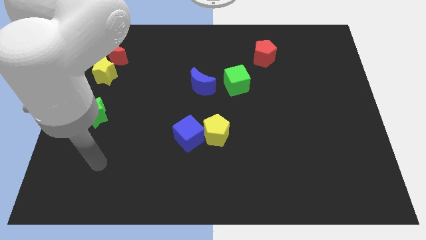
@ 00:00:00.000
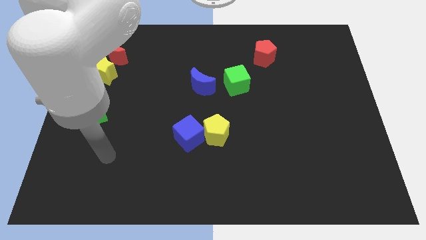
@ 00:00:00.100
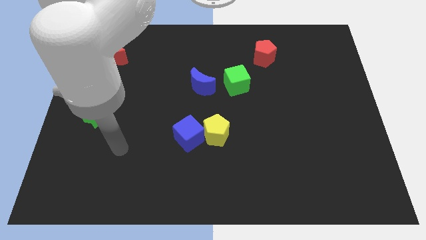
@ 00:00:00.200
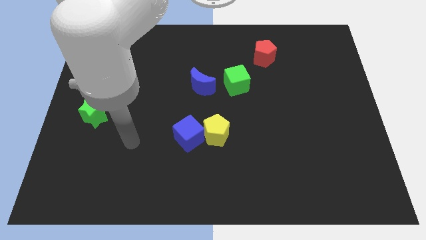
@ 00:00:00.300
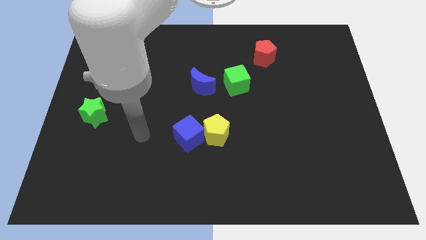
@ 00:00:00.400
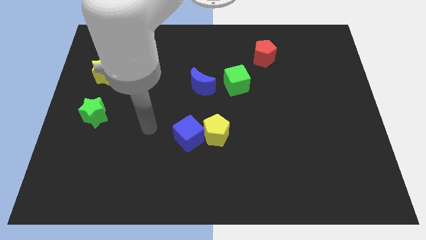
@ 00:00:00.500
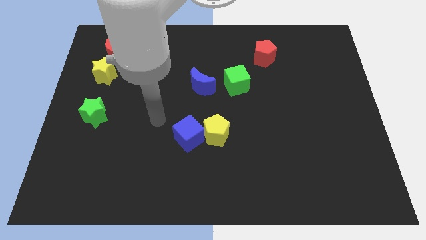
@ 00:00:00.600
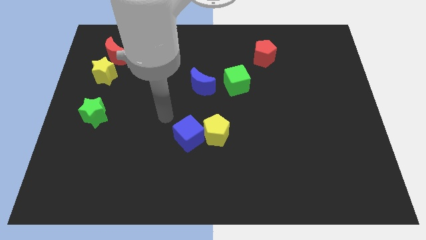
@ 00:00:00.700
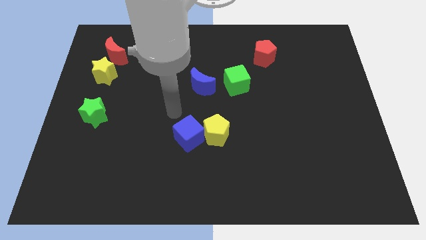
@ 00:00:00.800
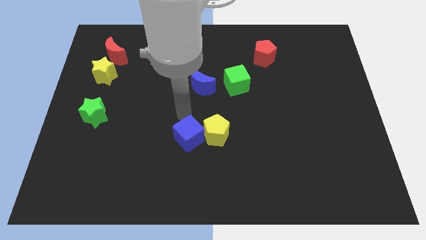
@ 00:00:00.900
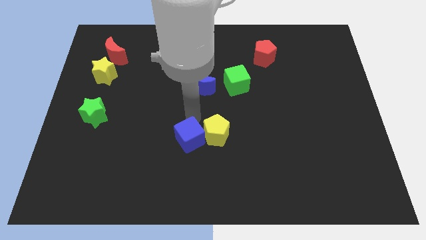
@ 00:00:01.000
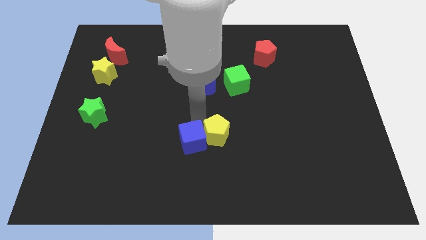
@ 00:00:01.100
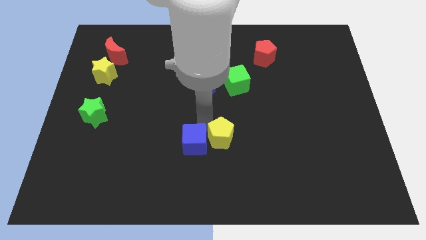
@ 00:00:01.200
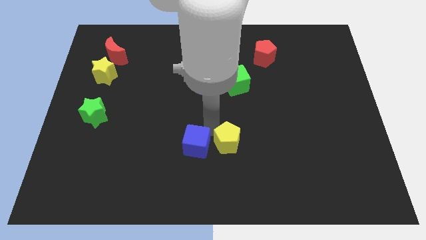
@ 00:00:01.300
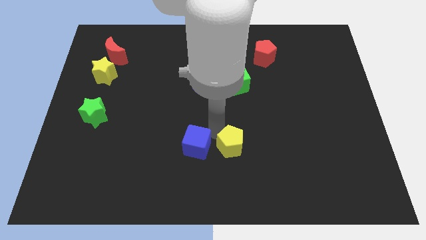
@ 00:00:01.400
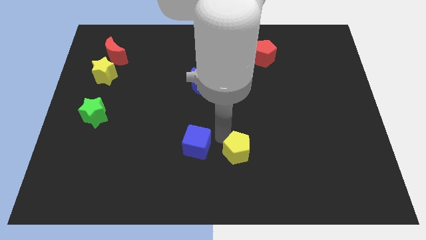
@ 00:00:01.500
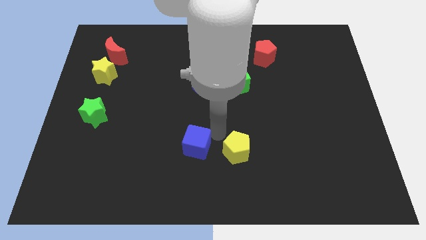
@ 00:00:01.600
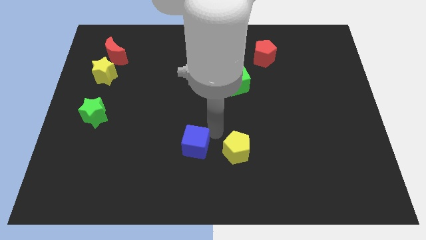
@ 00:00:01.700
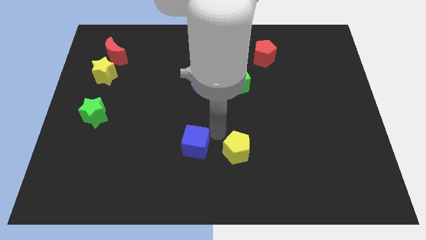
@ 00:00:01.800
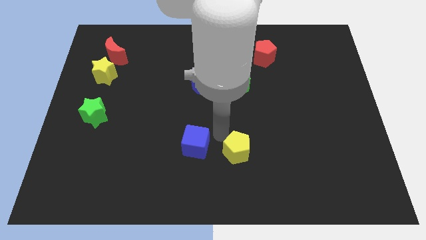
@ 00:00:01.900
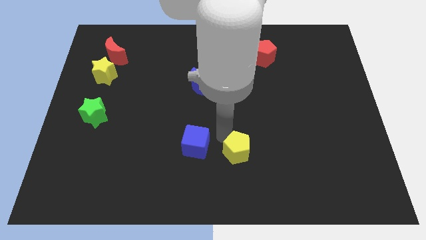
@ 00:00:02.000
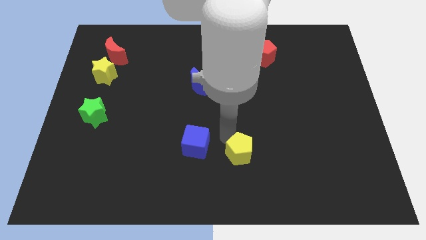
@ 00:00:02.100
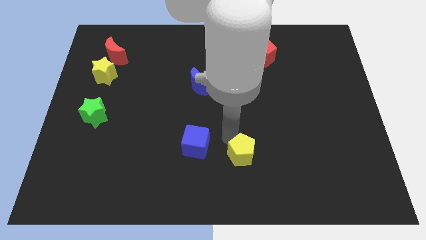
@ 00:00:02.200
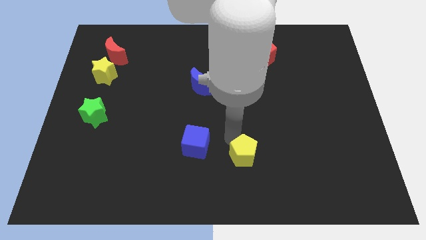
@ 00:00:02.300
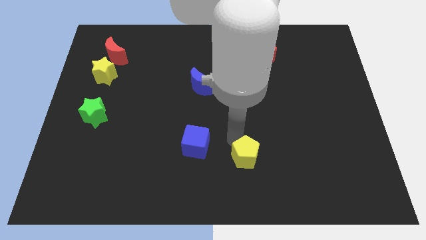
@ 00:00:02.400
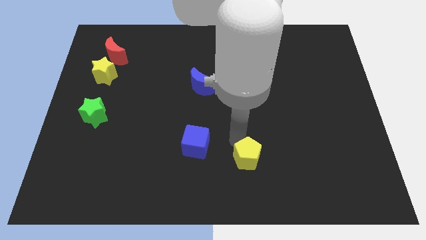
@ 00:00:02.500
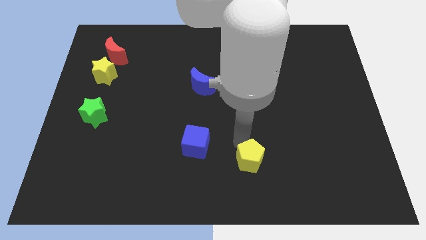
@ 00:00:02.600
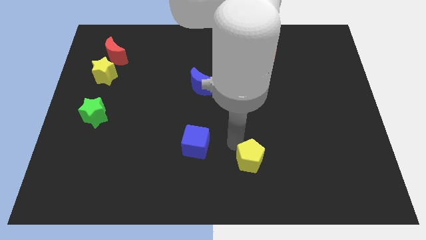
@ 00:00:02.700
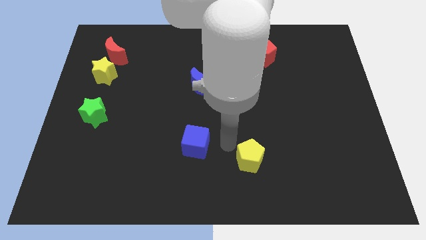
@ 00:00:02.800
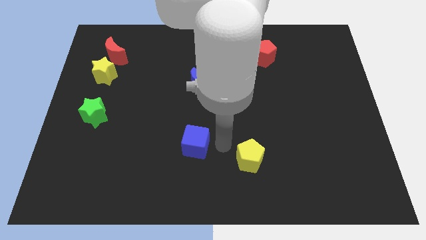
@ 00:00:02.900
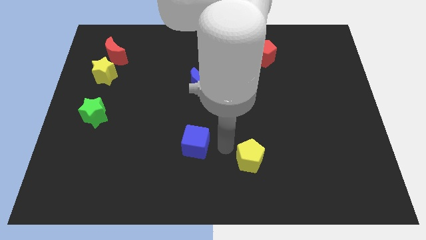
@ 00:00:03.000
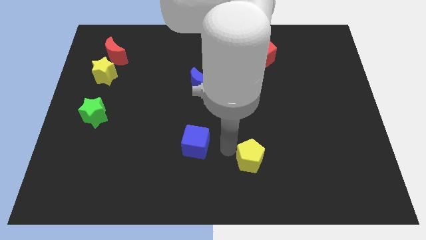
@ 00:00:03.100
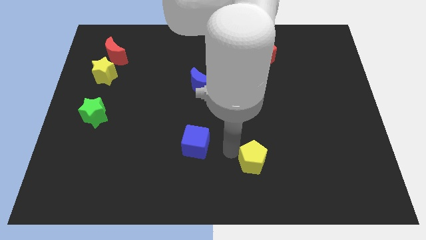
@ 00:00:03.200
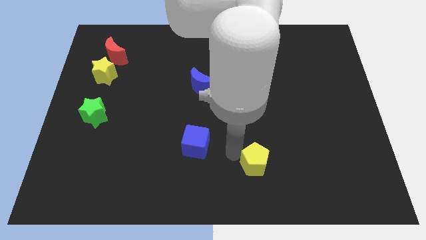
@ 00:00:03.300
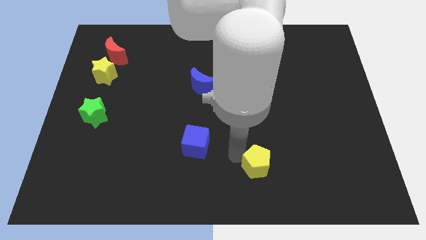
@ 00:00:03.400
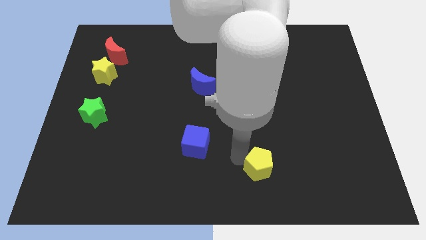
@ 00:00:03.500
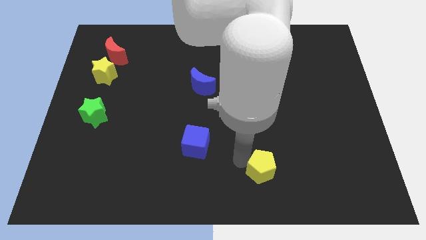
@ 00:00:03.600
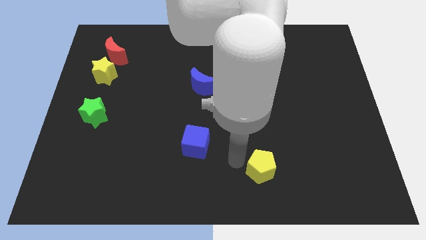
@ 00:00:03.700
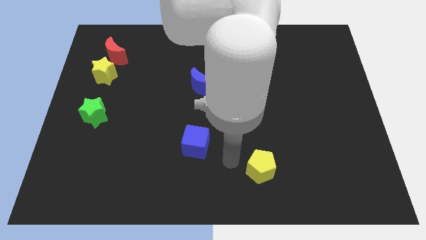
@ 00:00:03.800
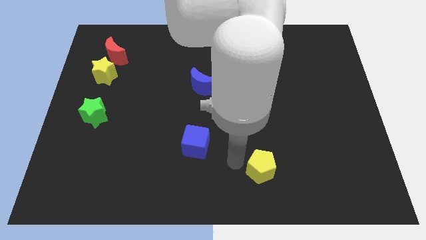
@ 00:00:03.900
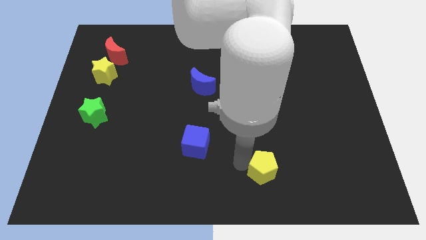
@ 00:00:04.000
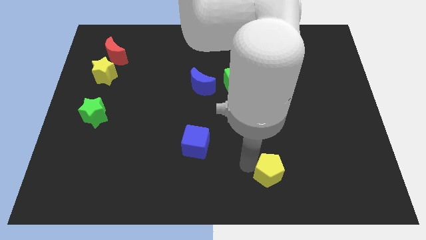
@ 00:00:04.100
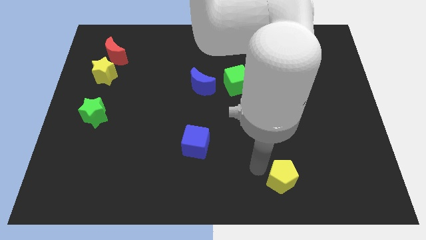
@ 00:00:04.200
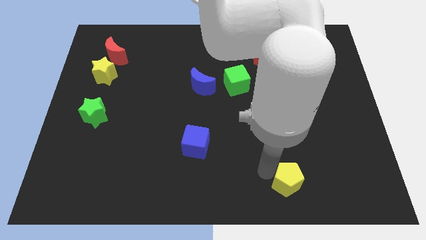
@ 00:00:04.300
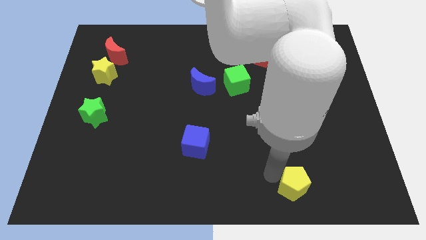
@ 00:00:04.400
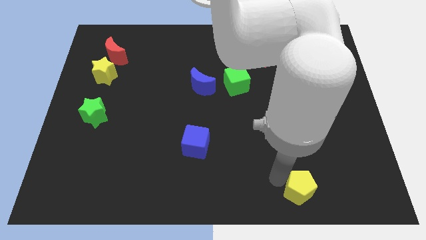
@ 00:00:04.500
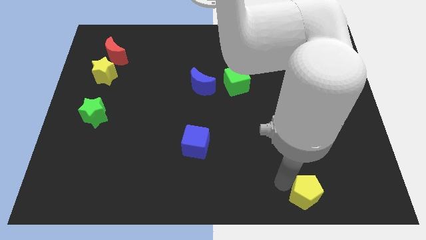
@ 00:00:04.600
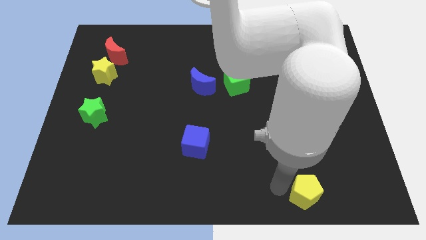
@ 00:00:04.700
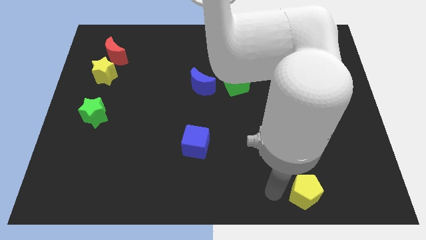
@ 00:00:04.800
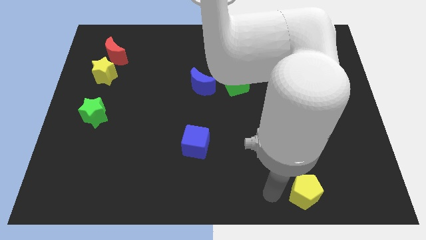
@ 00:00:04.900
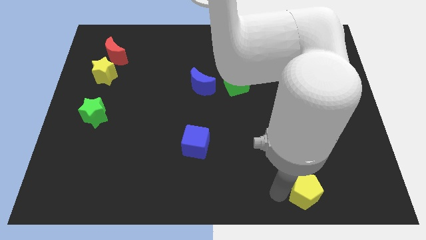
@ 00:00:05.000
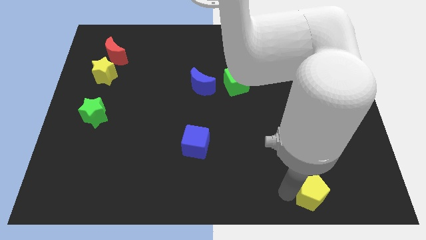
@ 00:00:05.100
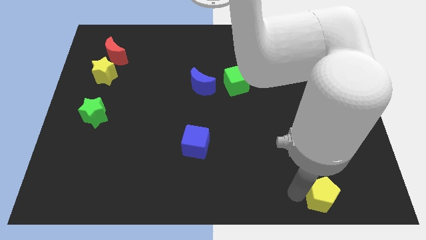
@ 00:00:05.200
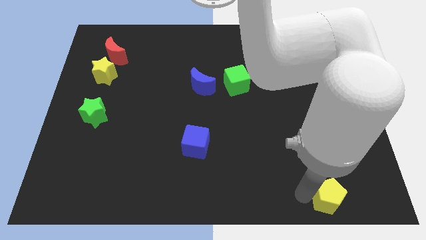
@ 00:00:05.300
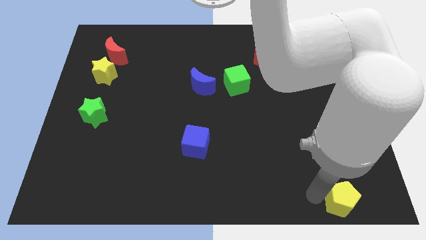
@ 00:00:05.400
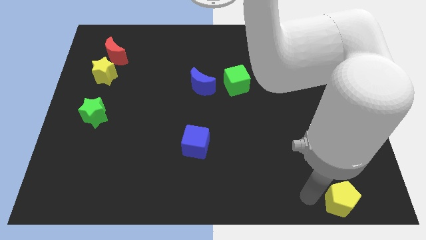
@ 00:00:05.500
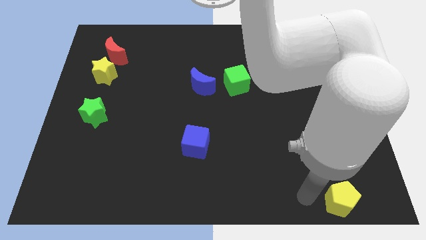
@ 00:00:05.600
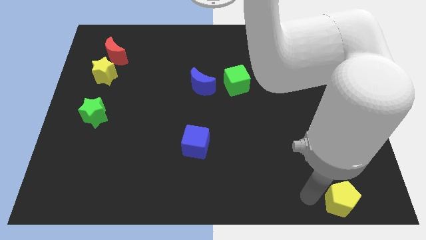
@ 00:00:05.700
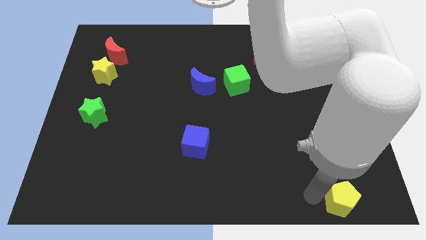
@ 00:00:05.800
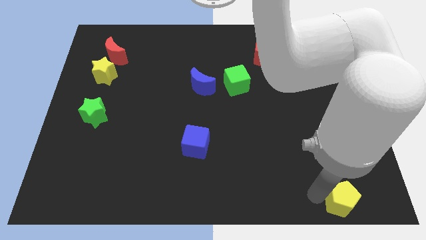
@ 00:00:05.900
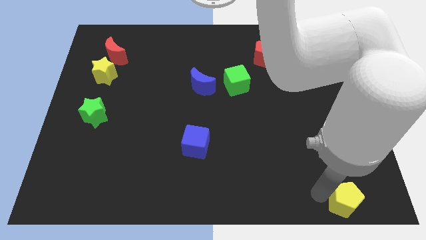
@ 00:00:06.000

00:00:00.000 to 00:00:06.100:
slide the yellow pentagon to the bottom right of the board
